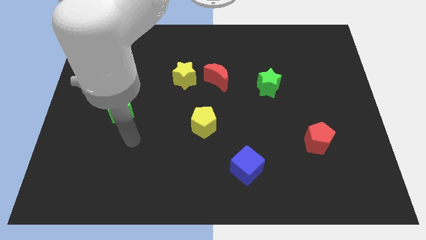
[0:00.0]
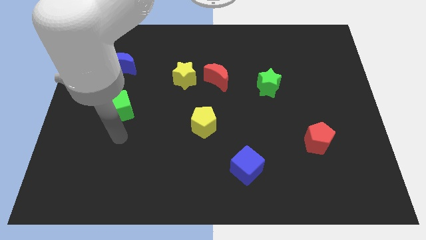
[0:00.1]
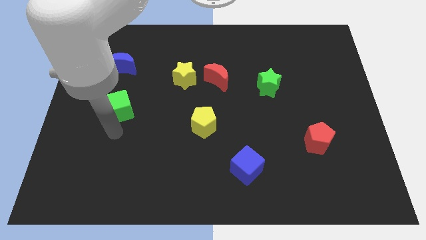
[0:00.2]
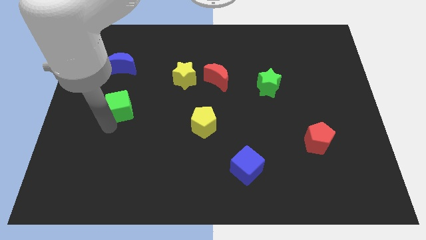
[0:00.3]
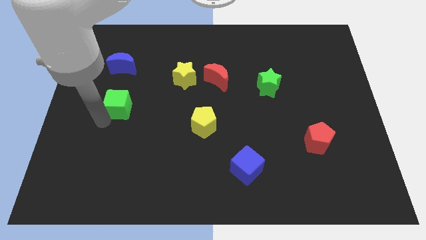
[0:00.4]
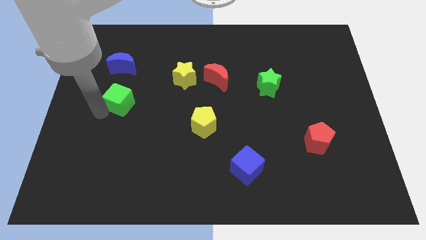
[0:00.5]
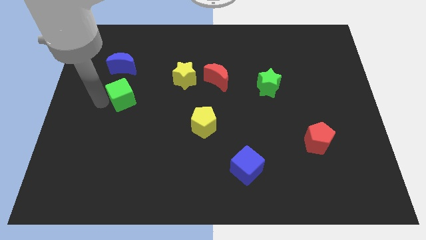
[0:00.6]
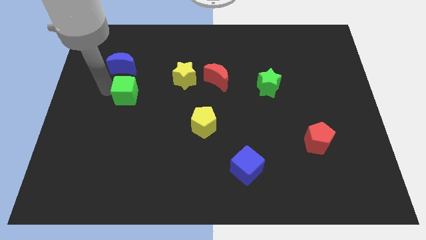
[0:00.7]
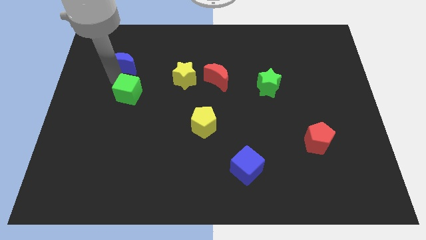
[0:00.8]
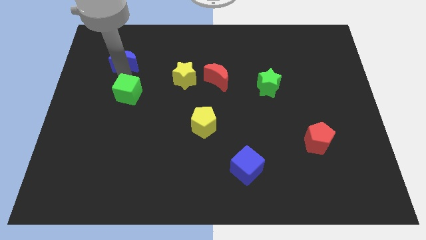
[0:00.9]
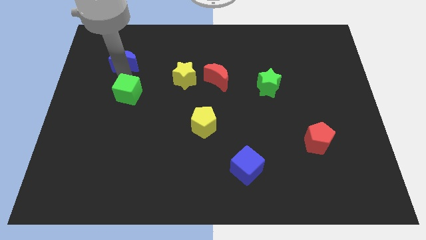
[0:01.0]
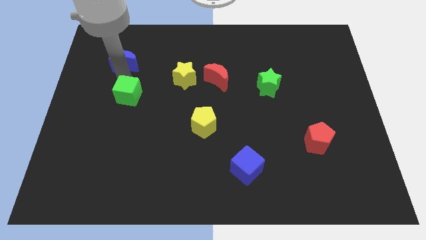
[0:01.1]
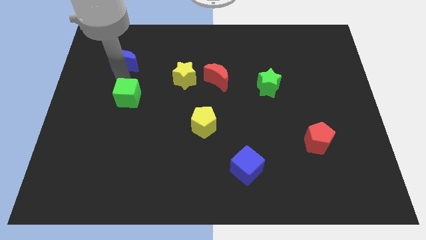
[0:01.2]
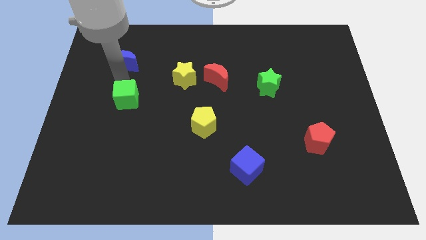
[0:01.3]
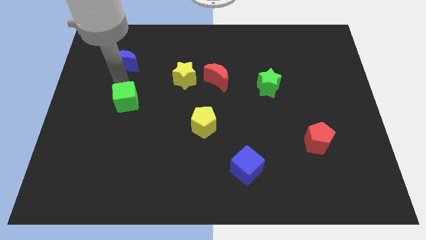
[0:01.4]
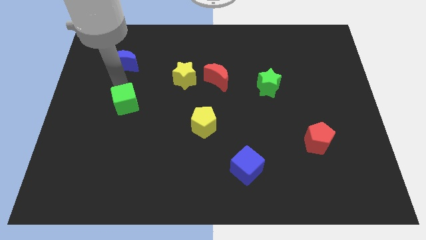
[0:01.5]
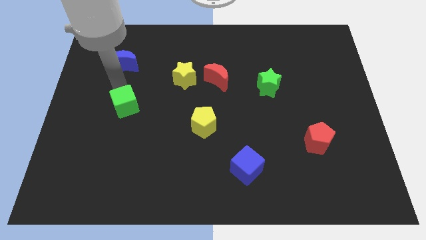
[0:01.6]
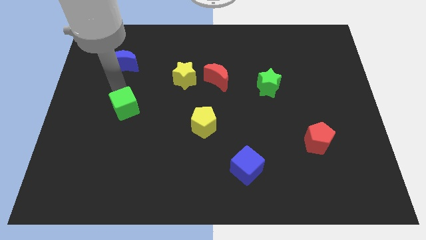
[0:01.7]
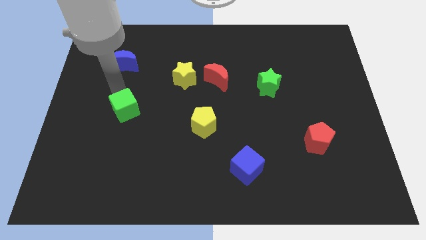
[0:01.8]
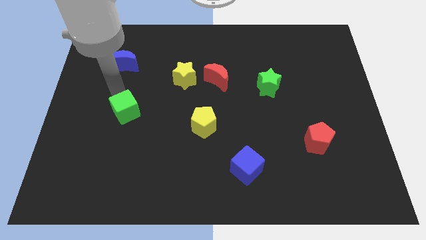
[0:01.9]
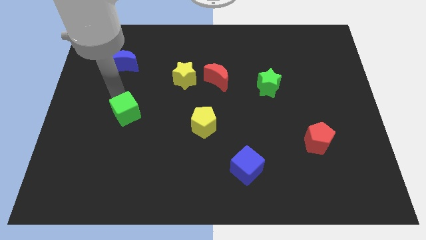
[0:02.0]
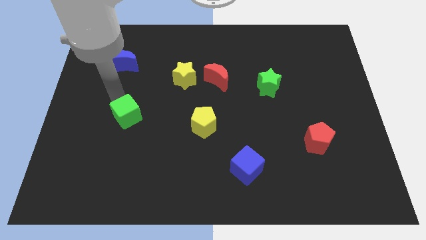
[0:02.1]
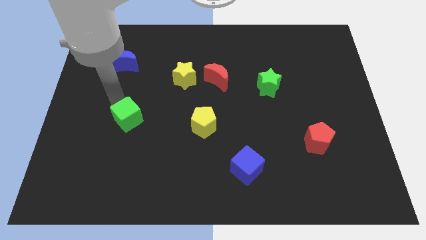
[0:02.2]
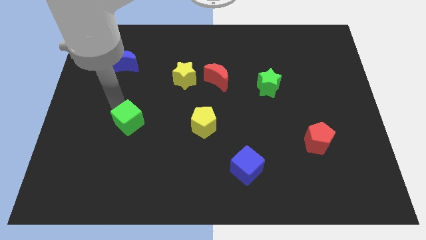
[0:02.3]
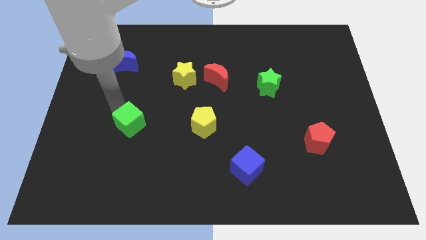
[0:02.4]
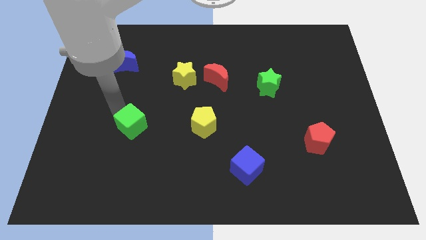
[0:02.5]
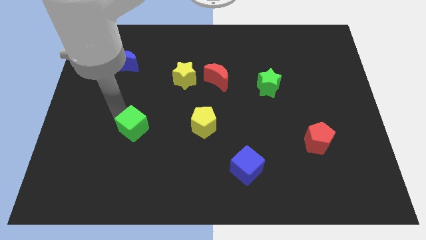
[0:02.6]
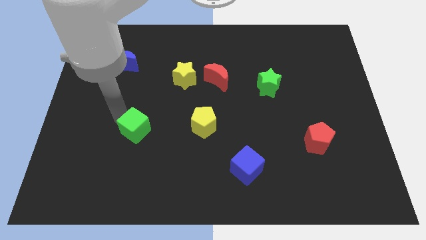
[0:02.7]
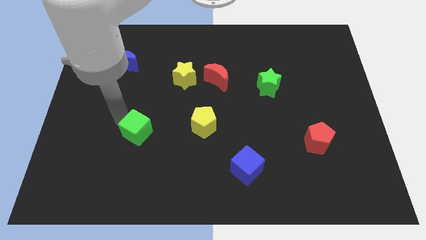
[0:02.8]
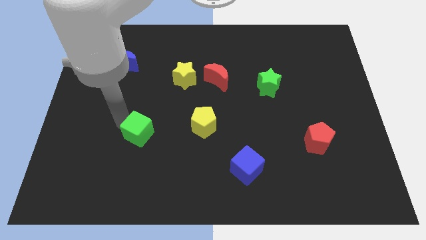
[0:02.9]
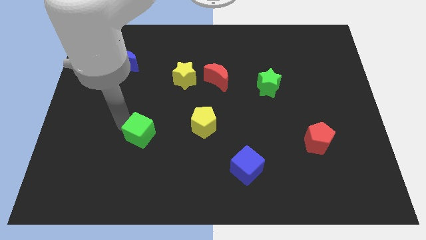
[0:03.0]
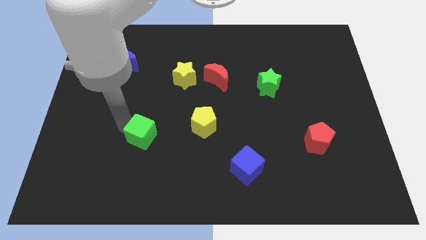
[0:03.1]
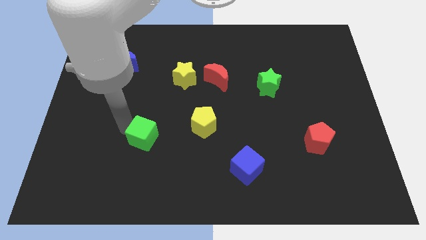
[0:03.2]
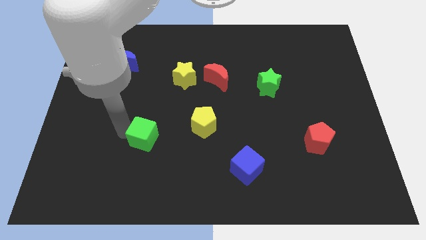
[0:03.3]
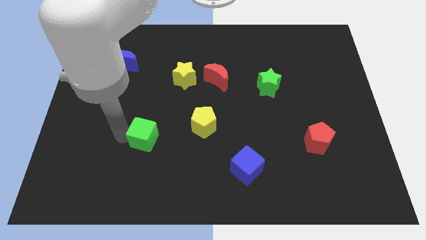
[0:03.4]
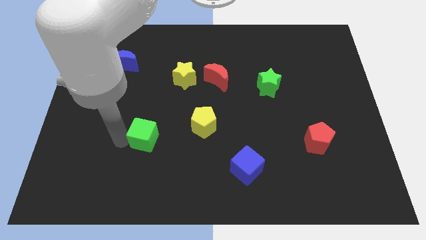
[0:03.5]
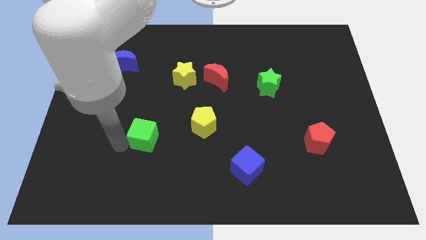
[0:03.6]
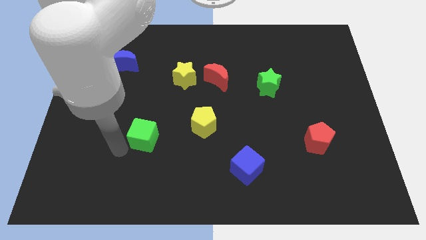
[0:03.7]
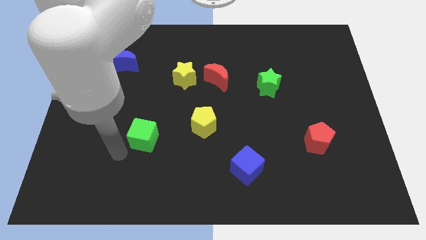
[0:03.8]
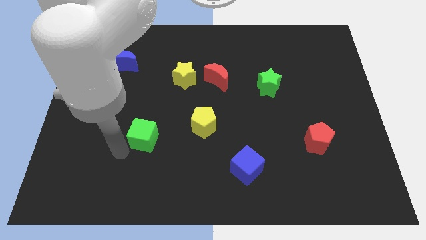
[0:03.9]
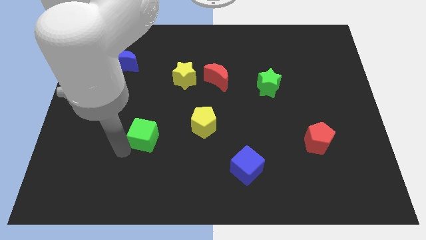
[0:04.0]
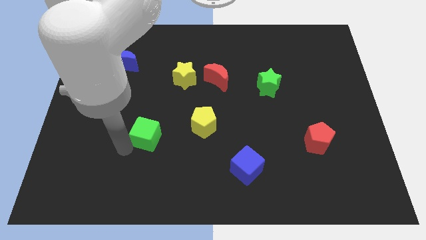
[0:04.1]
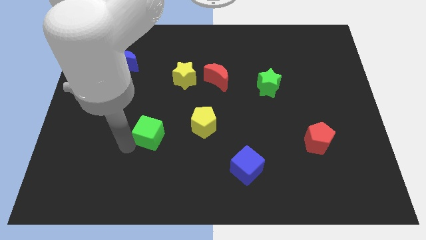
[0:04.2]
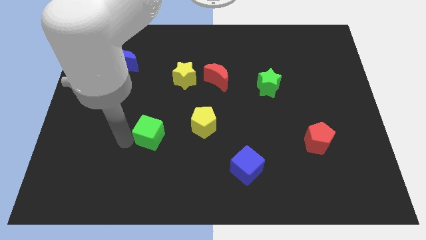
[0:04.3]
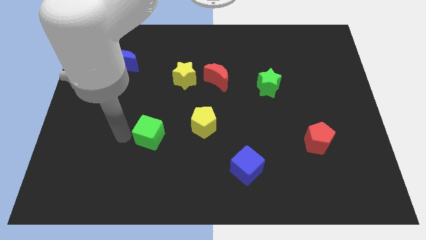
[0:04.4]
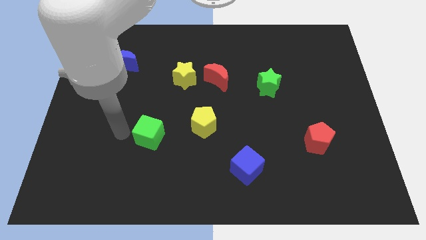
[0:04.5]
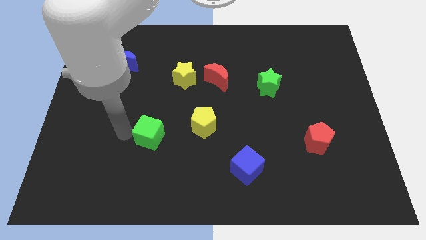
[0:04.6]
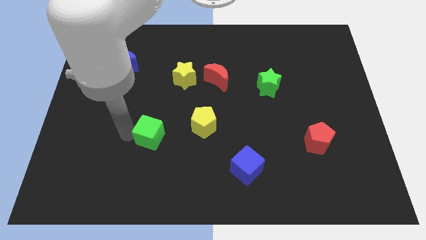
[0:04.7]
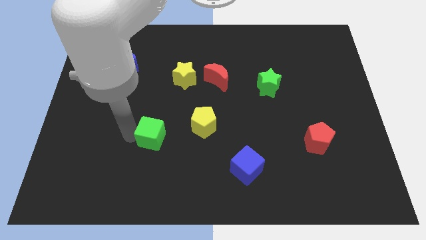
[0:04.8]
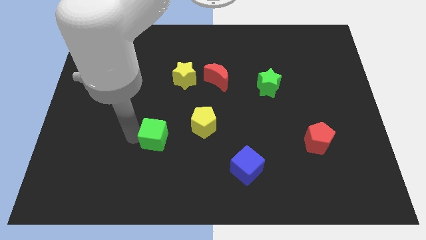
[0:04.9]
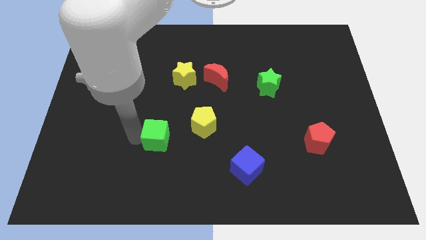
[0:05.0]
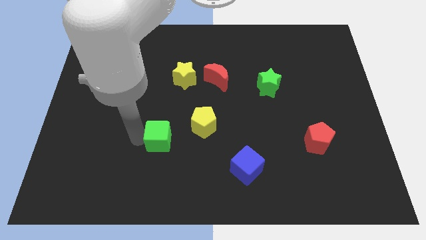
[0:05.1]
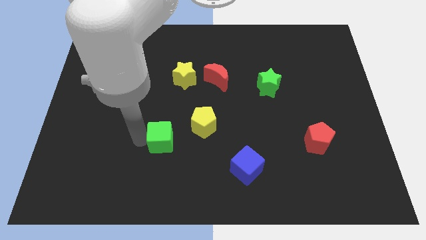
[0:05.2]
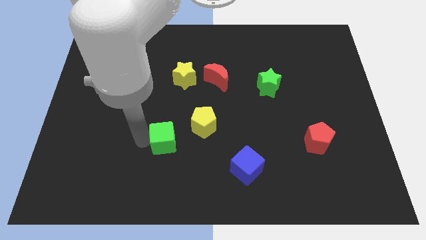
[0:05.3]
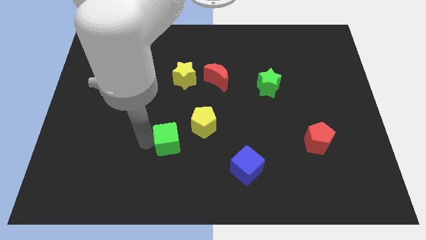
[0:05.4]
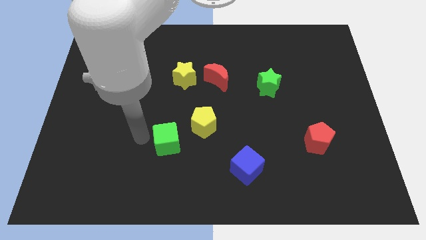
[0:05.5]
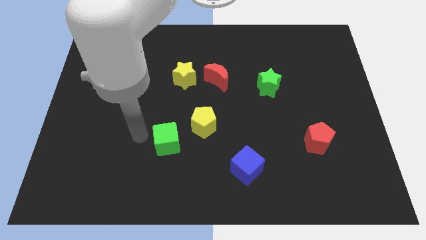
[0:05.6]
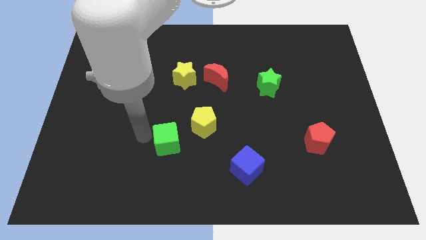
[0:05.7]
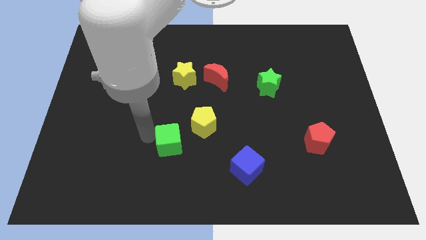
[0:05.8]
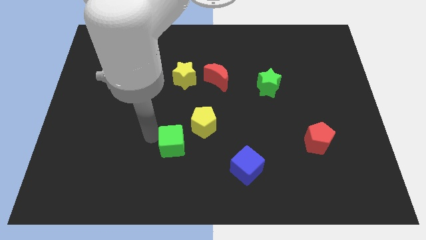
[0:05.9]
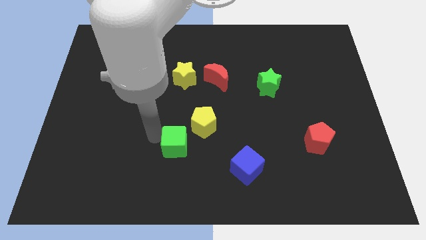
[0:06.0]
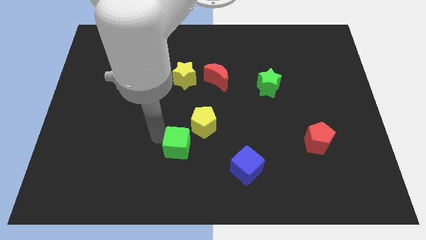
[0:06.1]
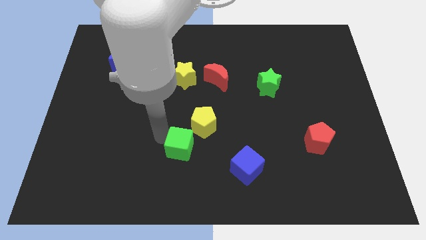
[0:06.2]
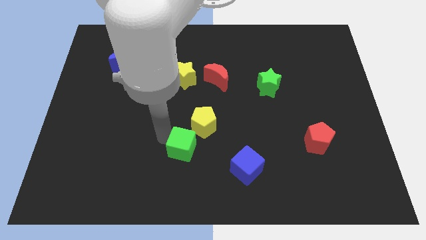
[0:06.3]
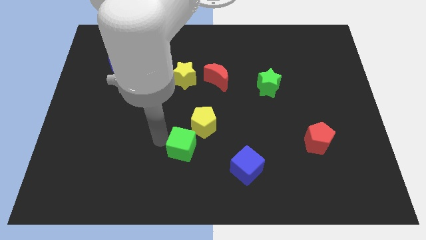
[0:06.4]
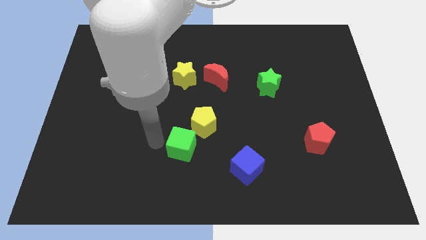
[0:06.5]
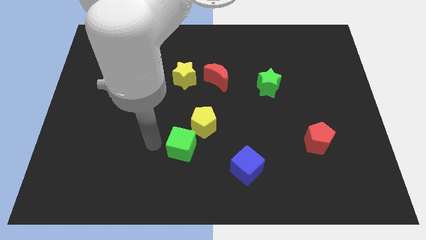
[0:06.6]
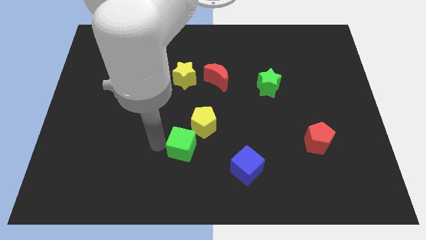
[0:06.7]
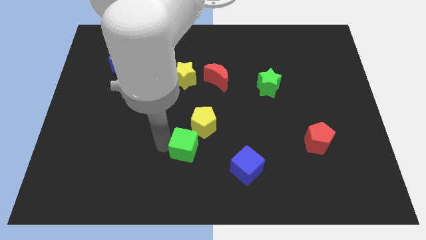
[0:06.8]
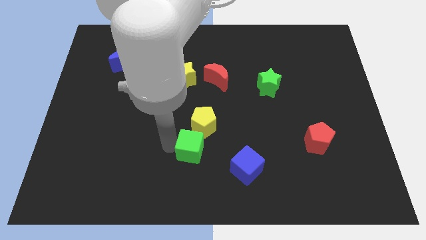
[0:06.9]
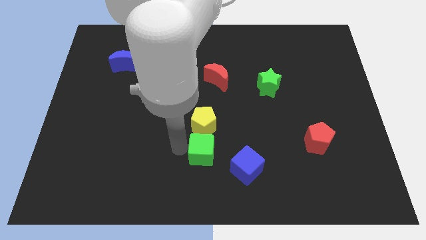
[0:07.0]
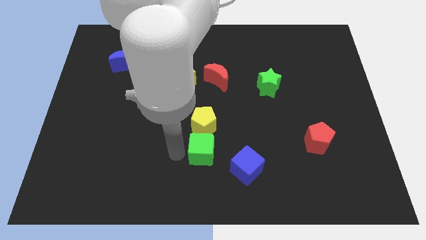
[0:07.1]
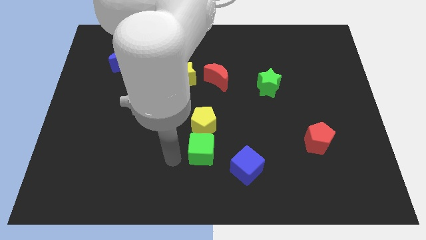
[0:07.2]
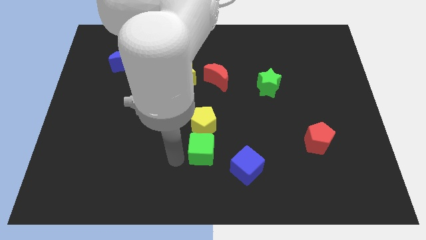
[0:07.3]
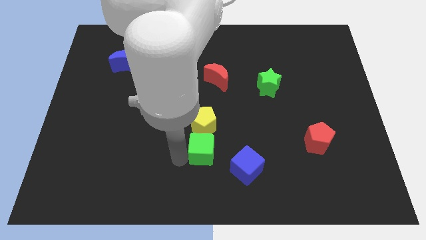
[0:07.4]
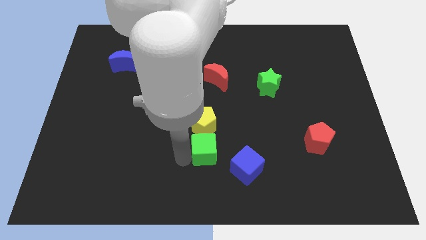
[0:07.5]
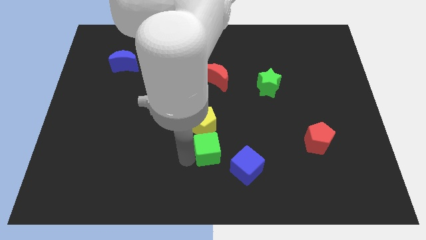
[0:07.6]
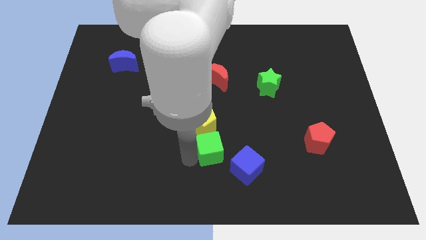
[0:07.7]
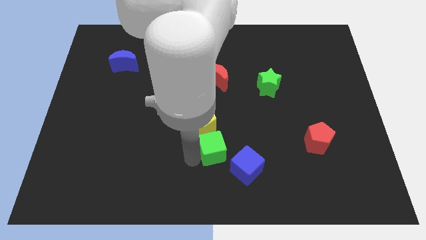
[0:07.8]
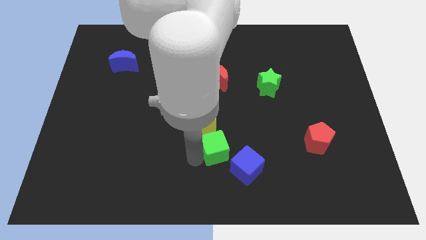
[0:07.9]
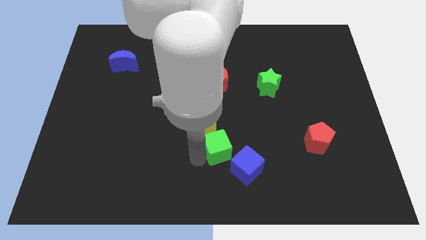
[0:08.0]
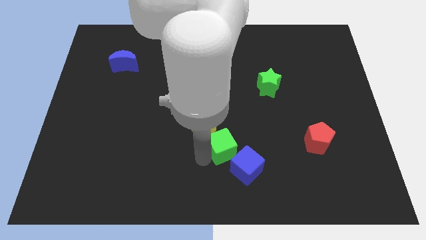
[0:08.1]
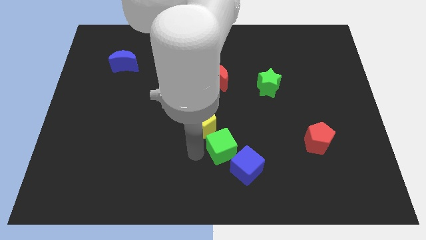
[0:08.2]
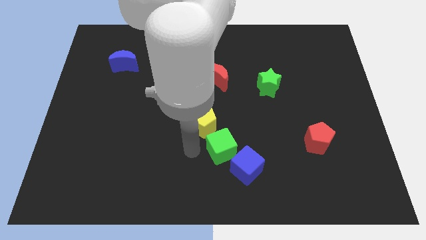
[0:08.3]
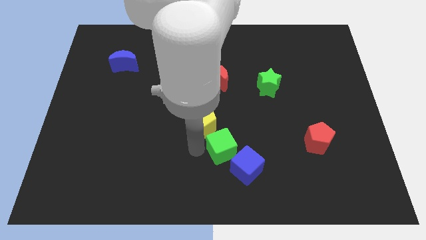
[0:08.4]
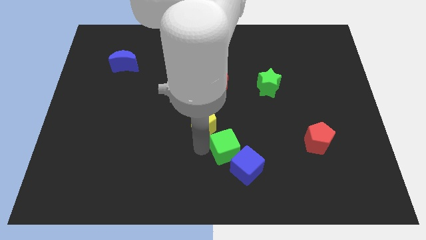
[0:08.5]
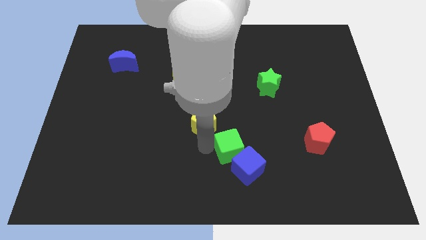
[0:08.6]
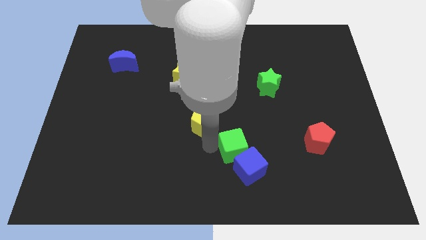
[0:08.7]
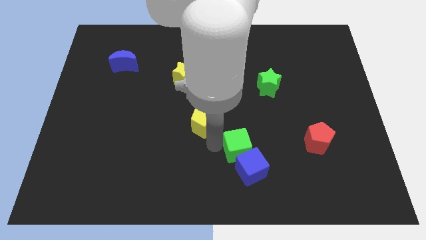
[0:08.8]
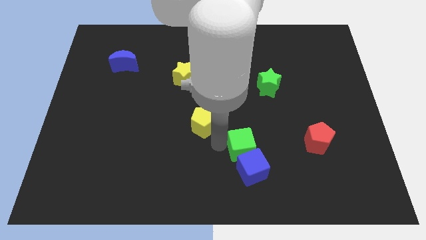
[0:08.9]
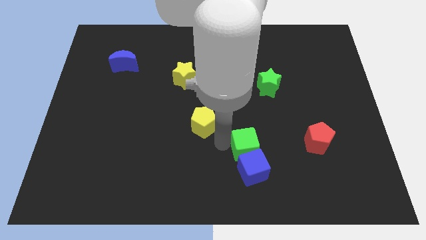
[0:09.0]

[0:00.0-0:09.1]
slide the green cube to the top right of the blue cube
